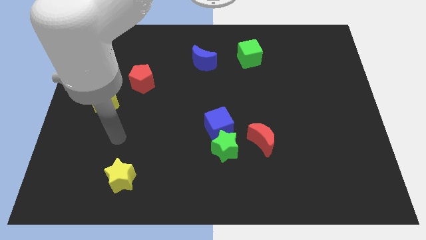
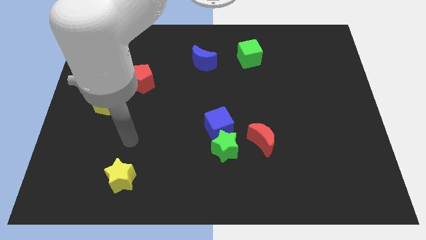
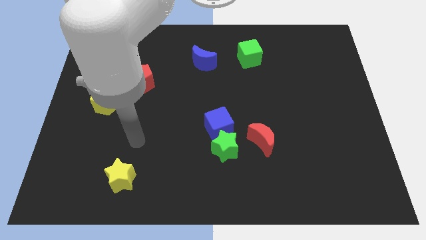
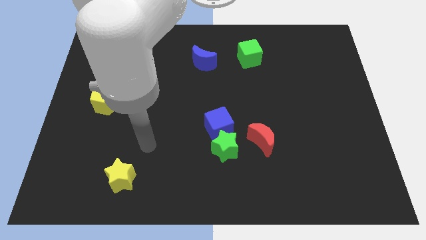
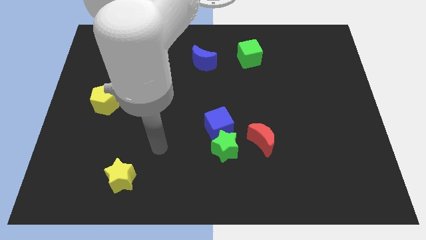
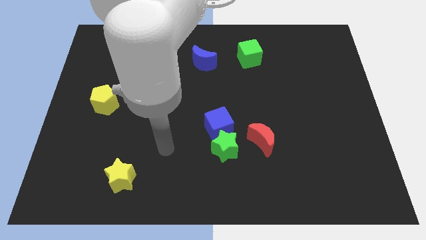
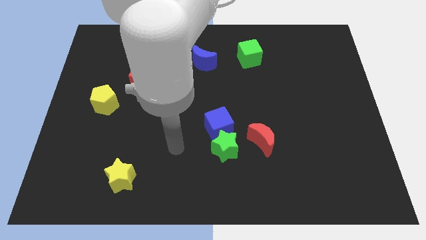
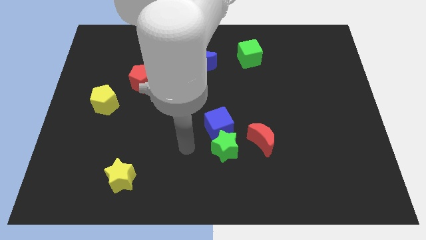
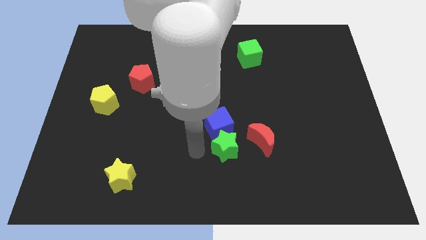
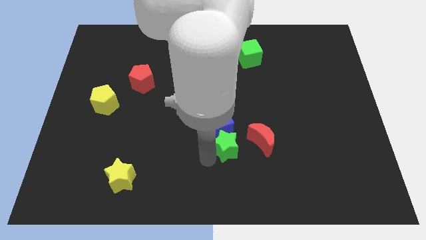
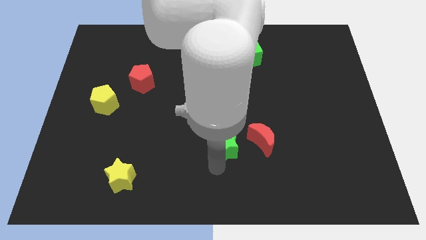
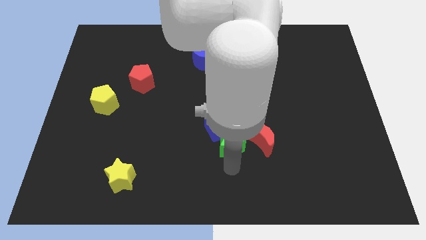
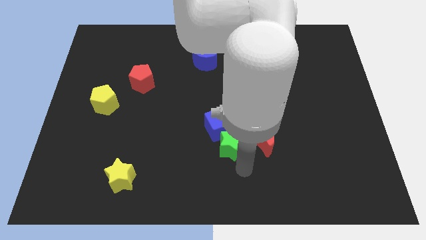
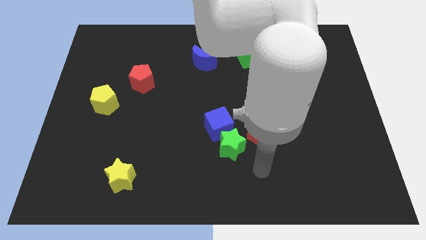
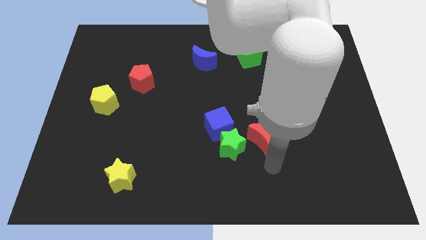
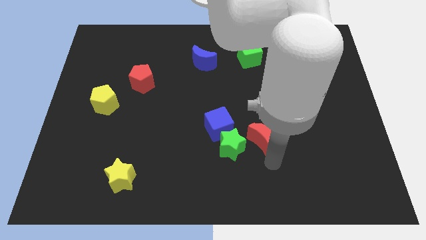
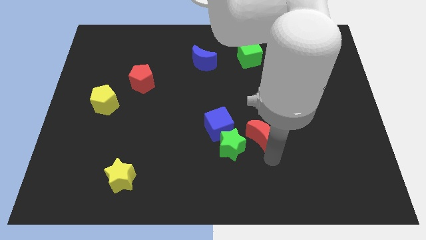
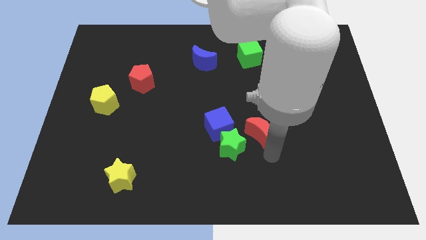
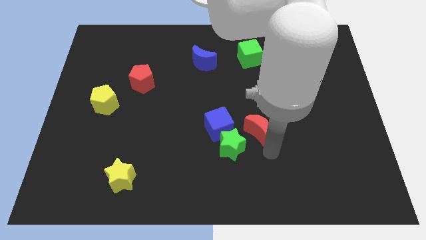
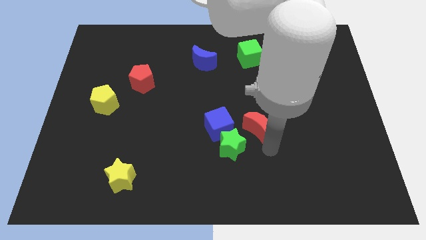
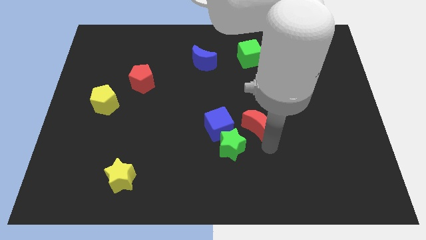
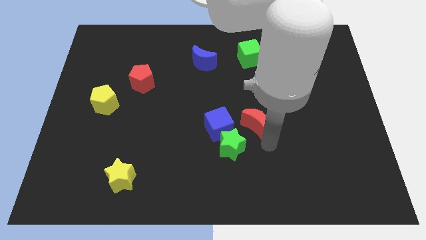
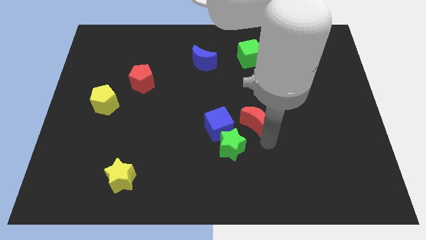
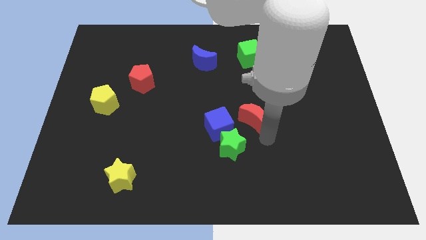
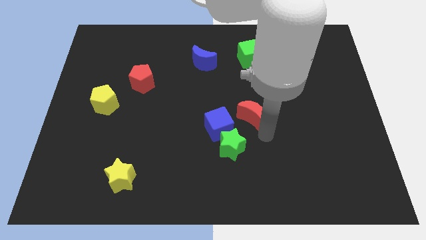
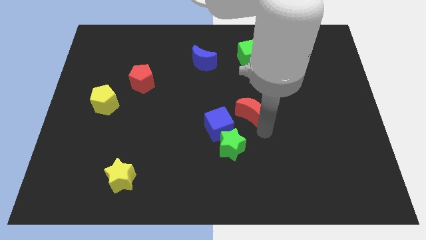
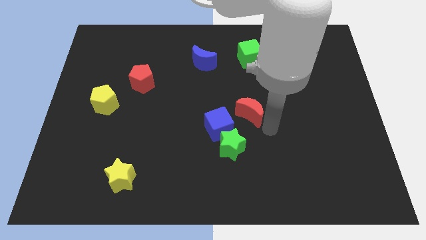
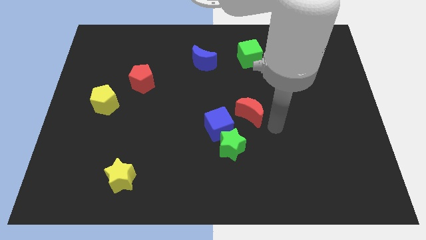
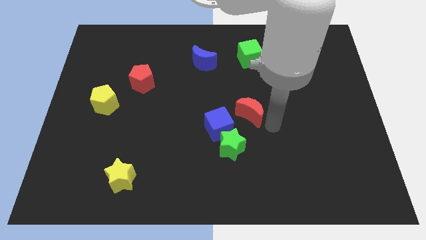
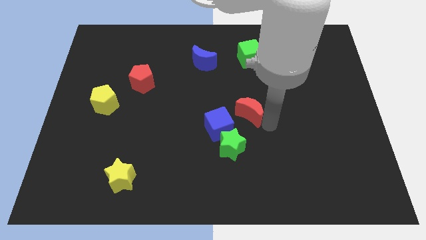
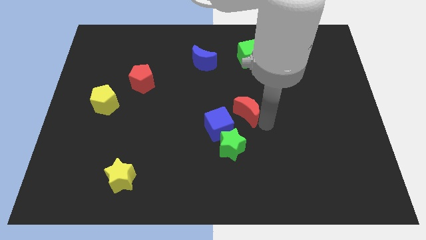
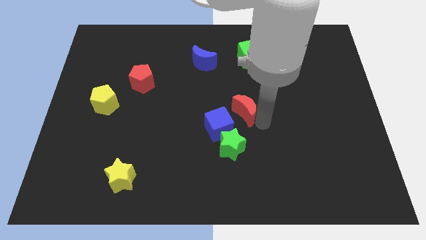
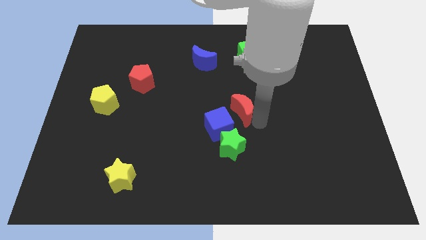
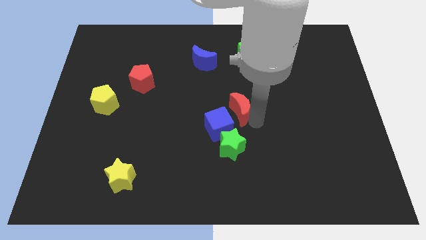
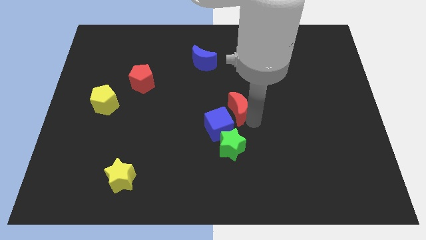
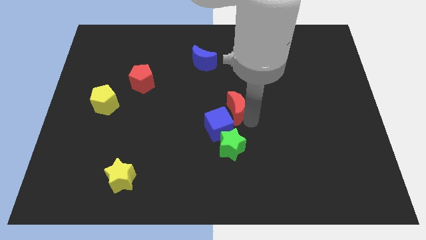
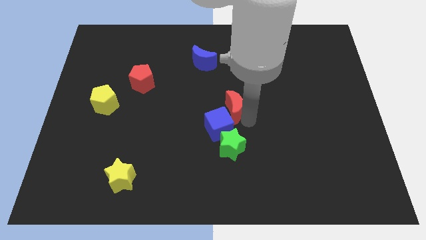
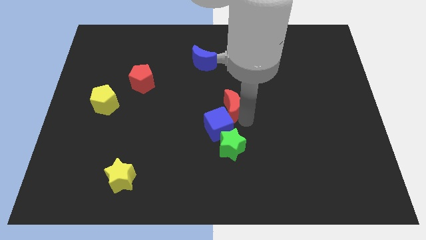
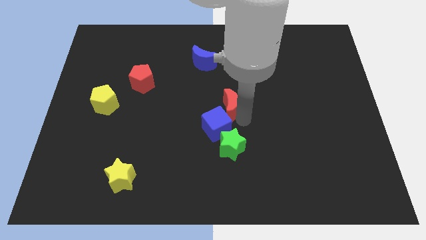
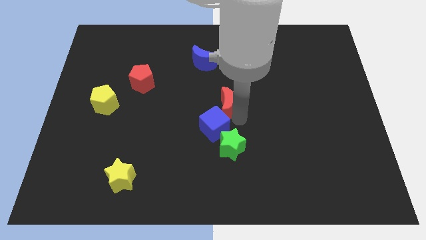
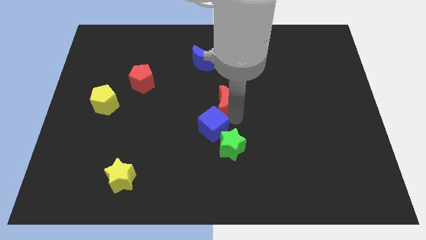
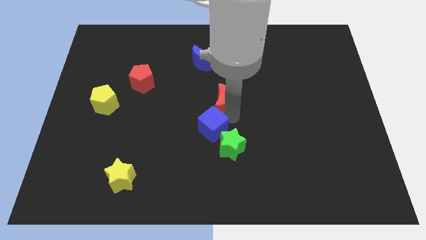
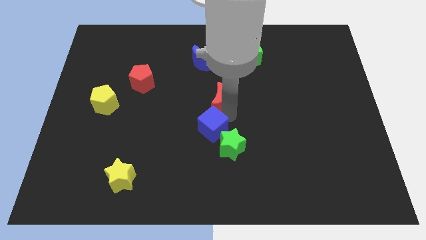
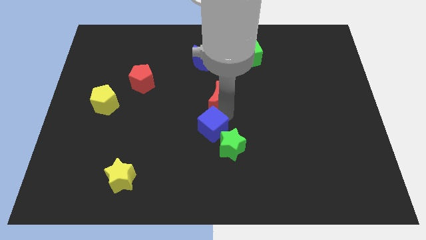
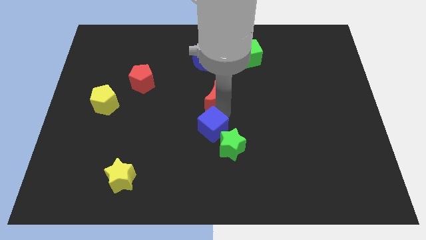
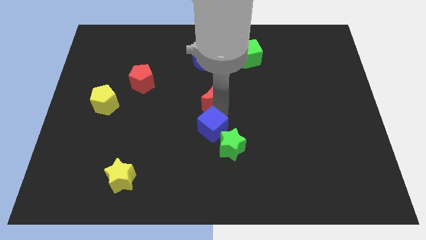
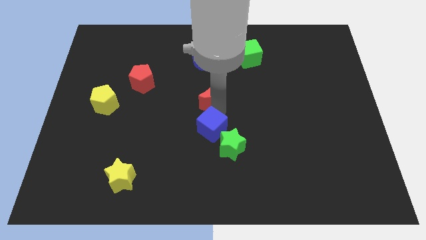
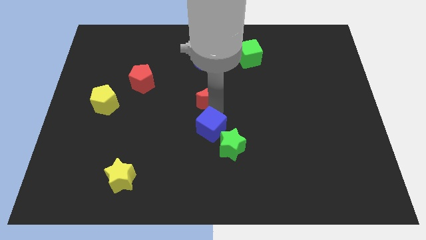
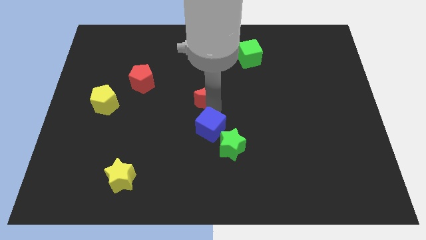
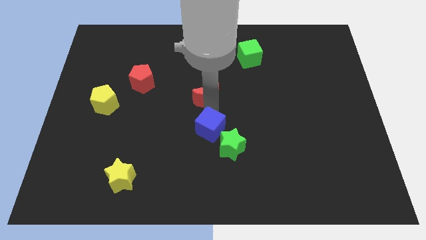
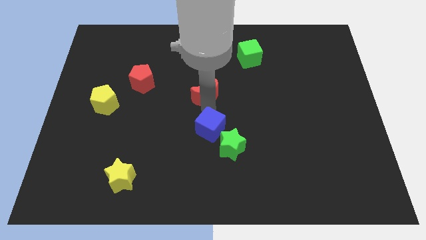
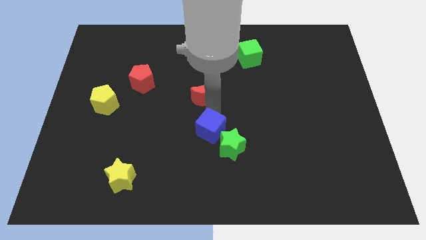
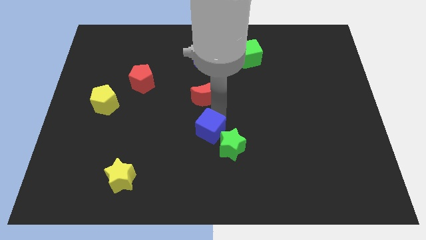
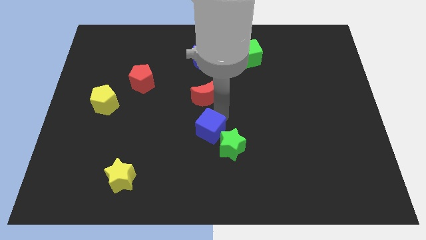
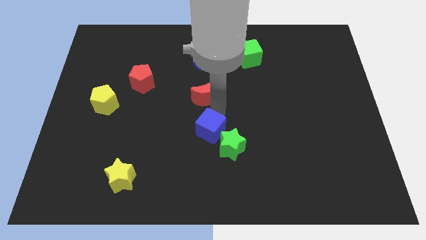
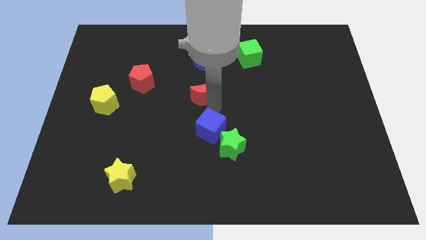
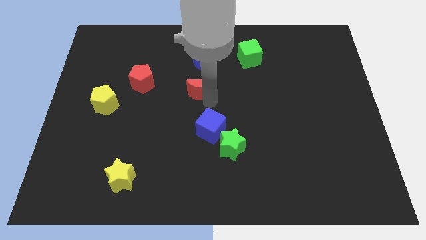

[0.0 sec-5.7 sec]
push the red moon up and left diagonally

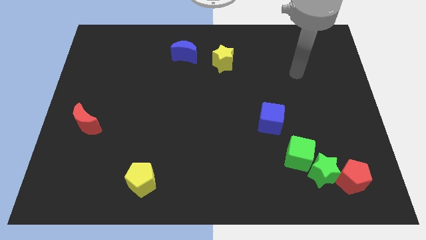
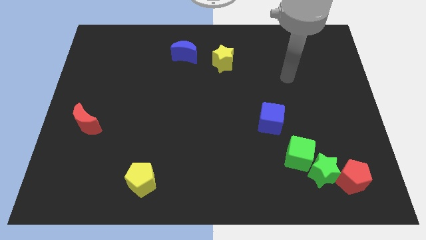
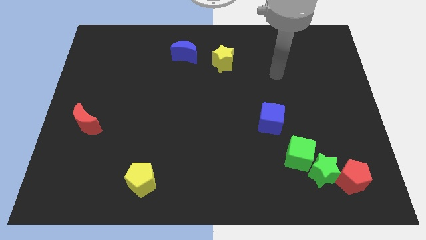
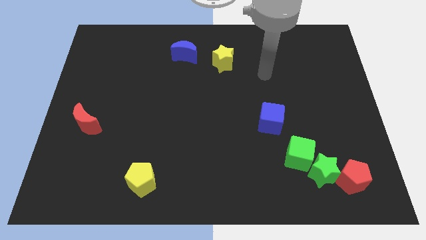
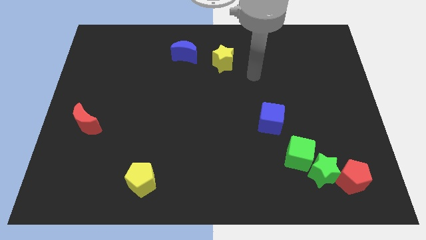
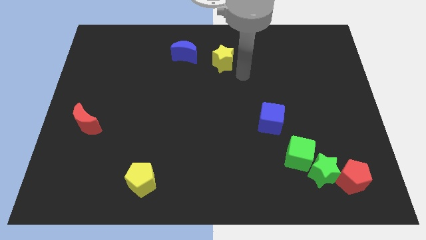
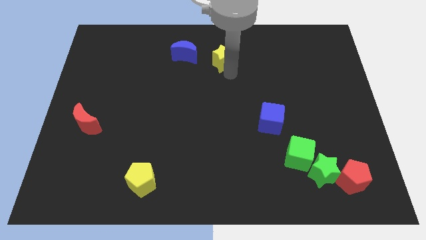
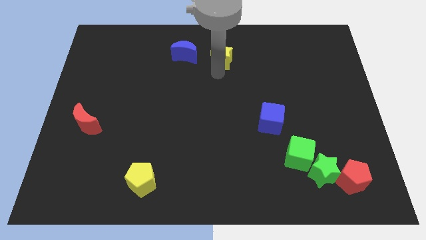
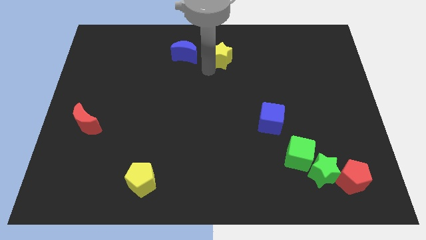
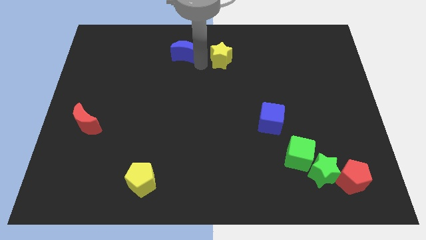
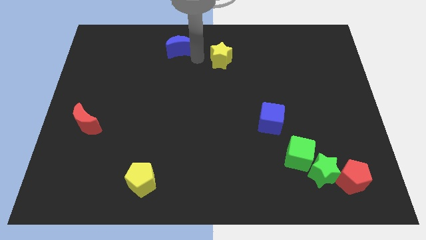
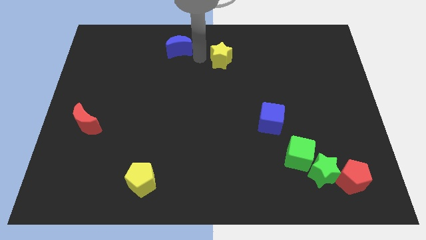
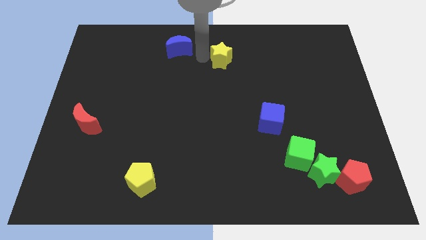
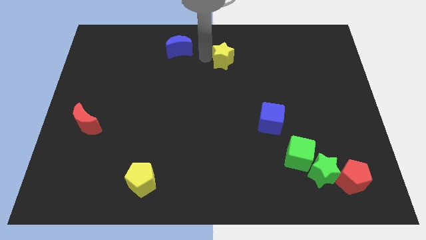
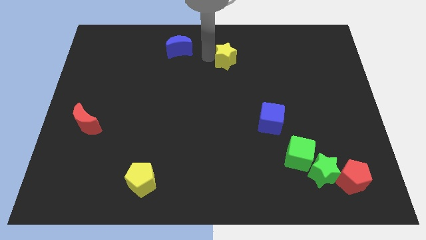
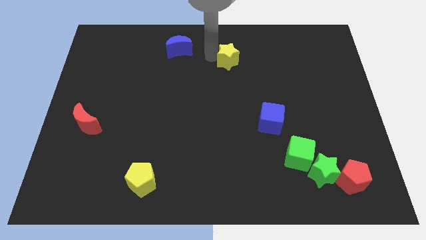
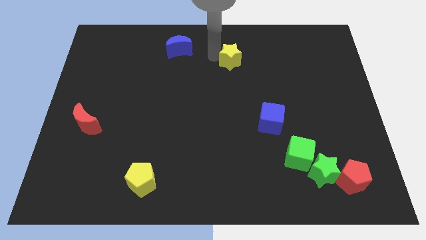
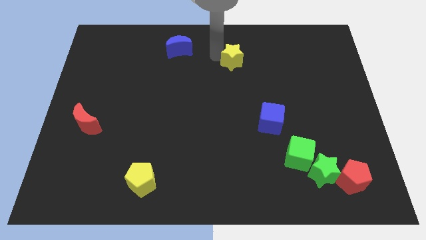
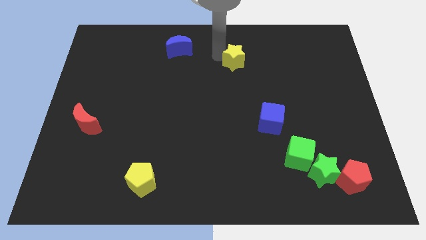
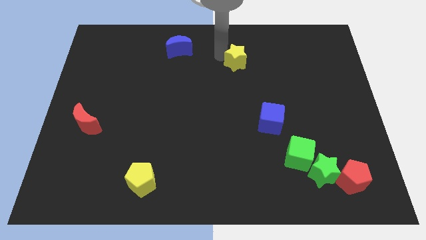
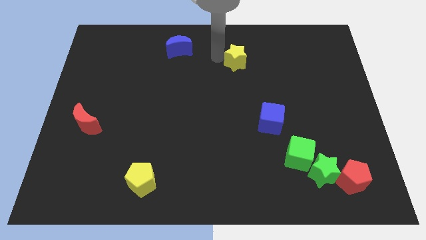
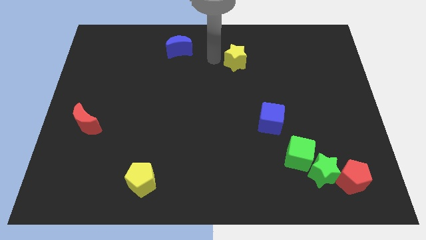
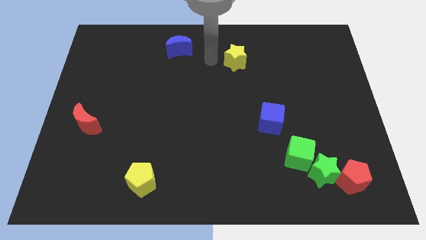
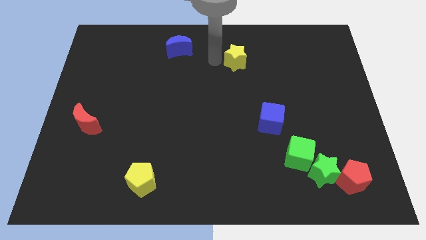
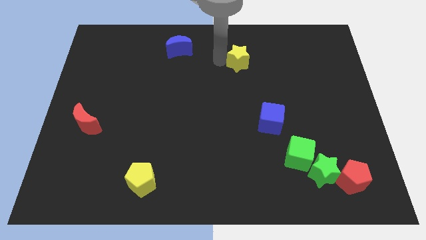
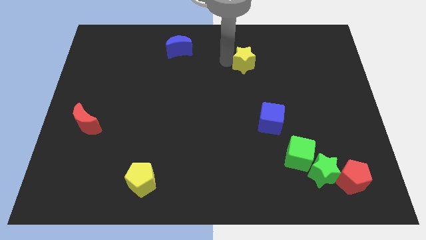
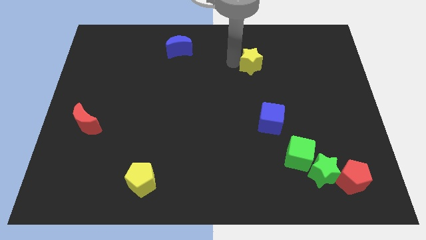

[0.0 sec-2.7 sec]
slightly slide the yellow star to the right
